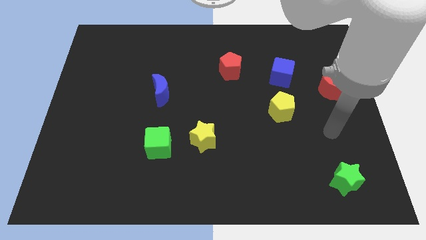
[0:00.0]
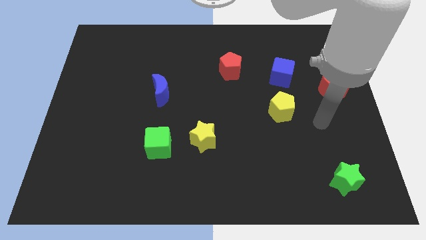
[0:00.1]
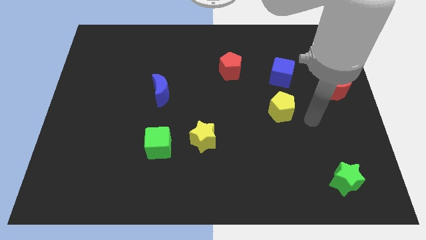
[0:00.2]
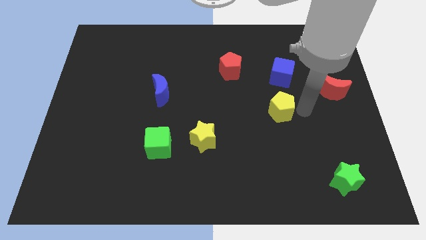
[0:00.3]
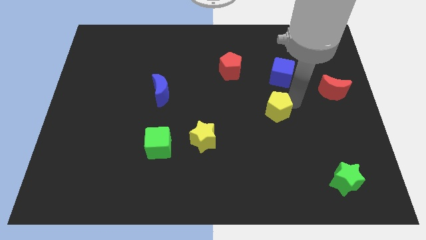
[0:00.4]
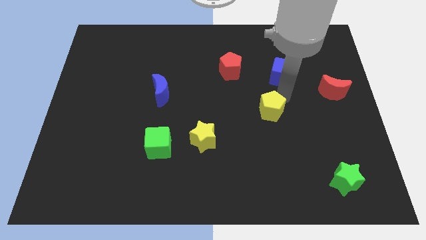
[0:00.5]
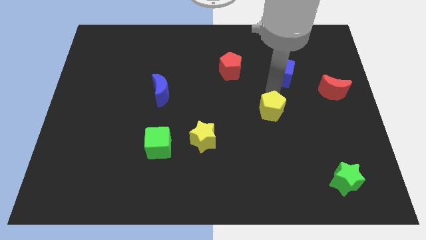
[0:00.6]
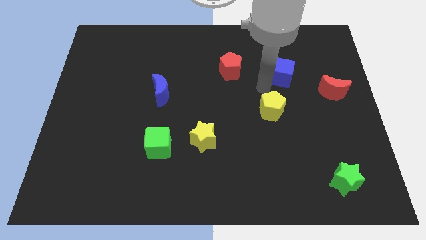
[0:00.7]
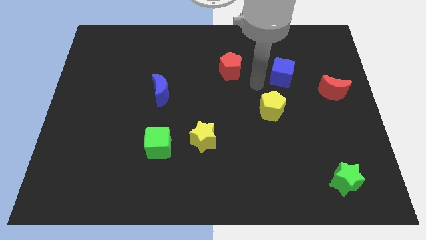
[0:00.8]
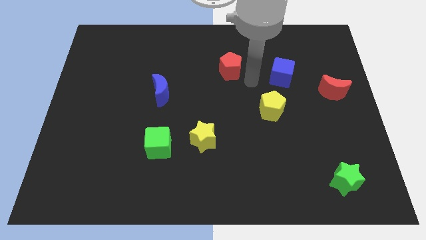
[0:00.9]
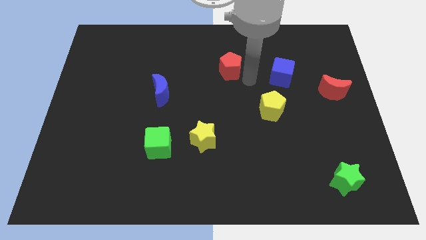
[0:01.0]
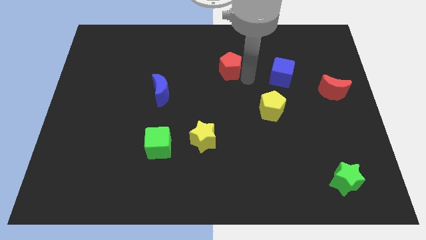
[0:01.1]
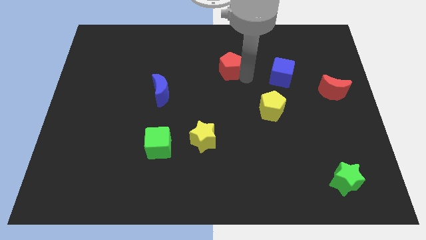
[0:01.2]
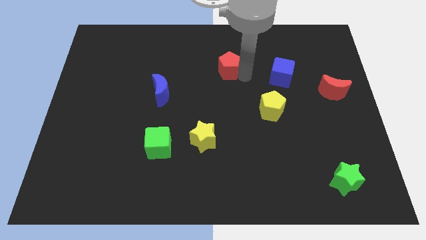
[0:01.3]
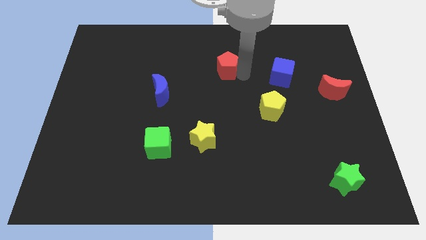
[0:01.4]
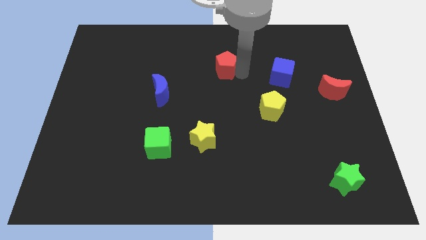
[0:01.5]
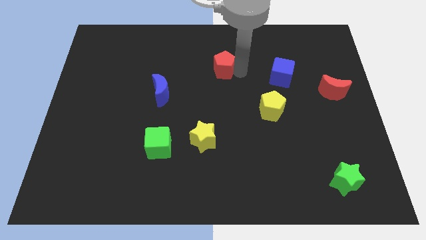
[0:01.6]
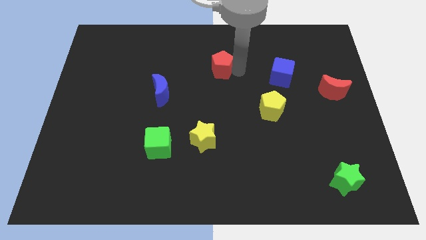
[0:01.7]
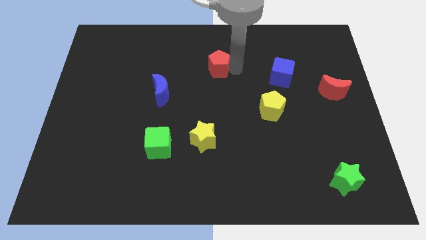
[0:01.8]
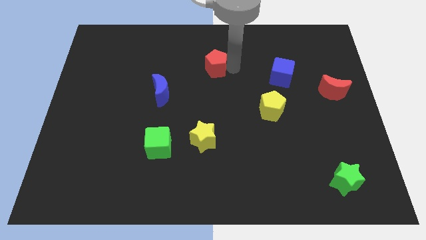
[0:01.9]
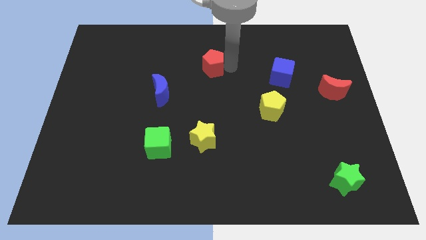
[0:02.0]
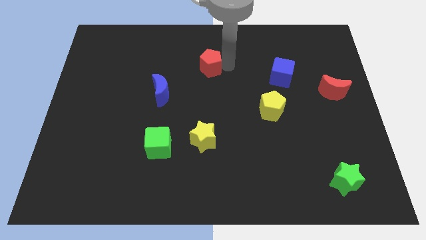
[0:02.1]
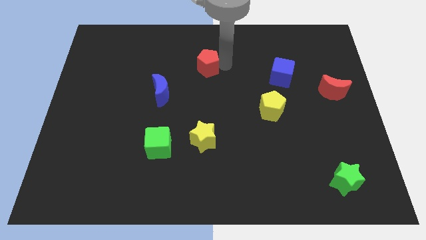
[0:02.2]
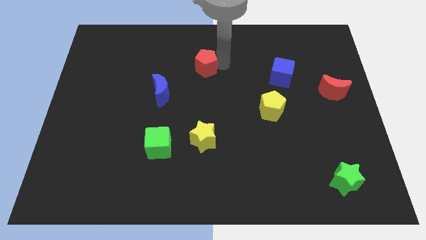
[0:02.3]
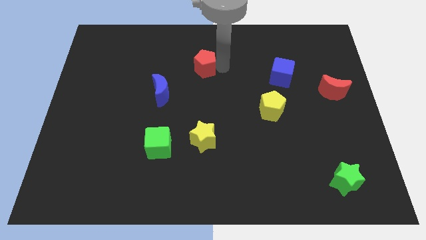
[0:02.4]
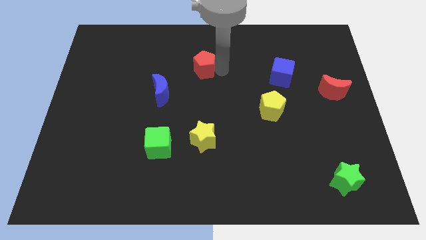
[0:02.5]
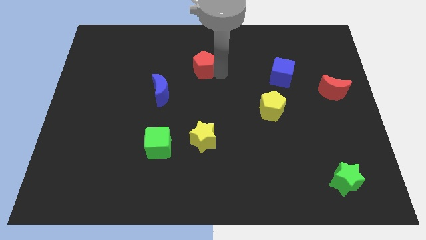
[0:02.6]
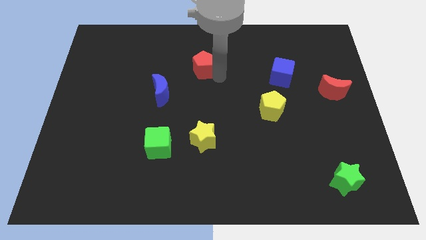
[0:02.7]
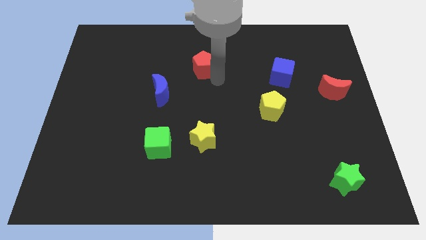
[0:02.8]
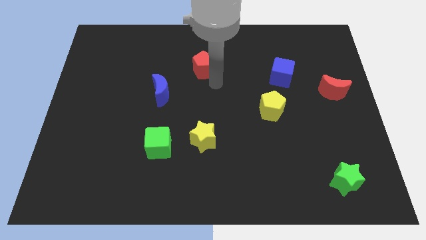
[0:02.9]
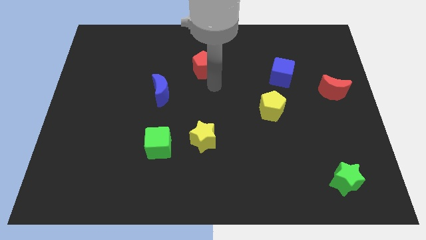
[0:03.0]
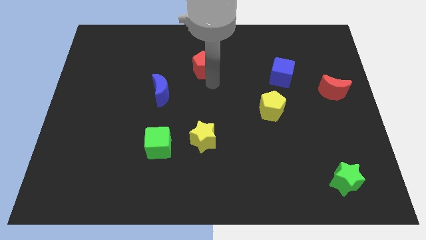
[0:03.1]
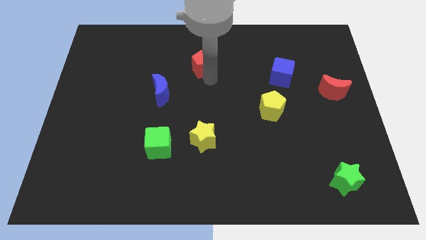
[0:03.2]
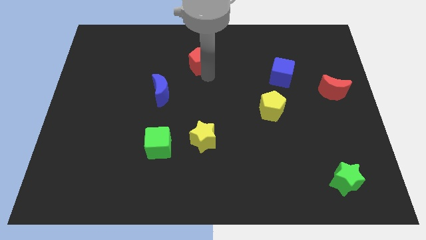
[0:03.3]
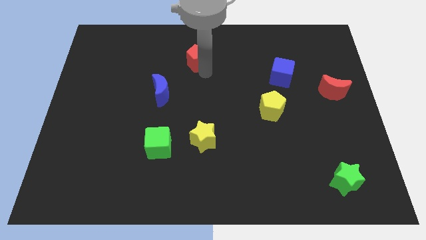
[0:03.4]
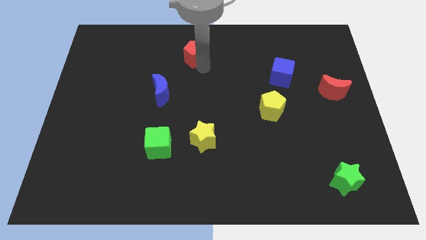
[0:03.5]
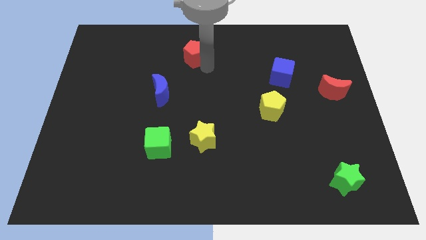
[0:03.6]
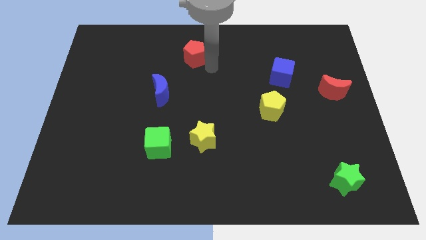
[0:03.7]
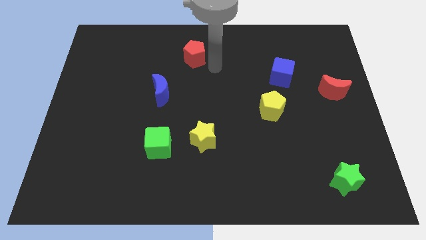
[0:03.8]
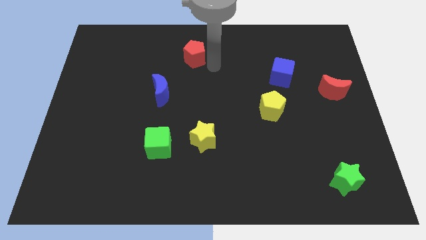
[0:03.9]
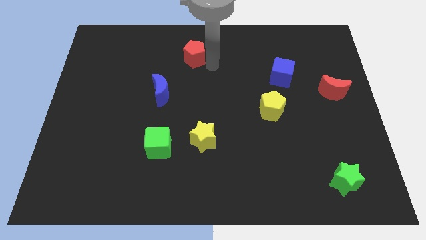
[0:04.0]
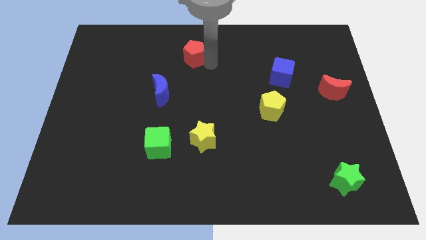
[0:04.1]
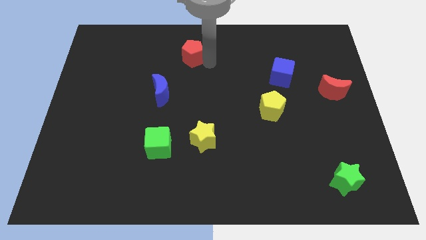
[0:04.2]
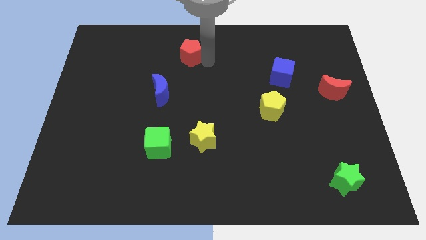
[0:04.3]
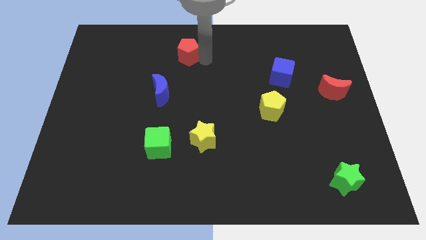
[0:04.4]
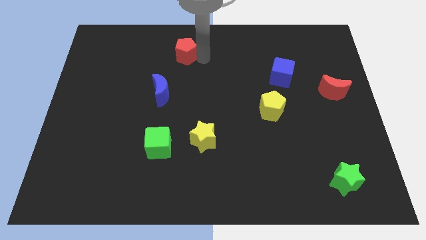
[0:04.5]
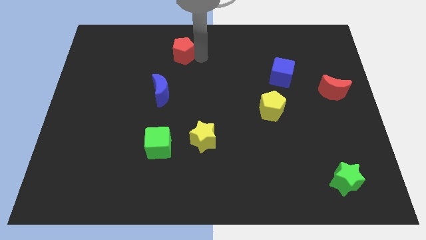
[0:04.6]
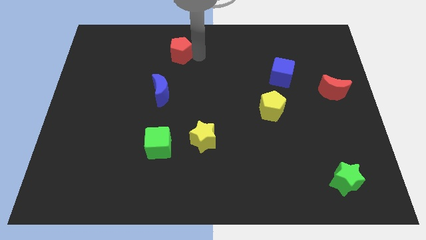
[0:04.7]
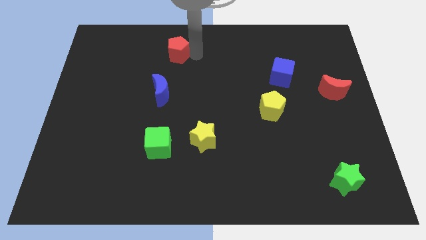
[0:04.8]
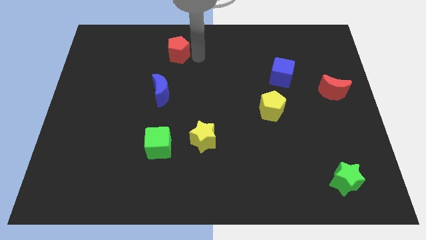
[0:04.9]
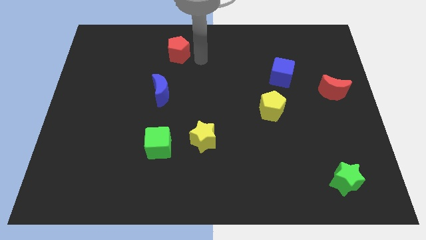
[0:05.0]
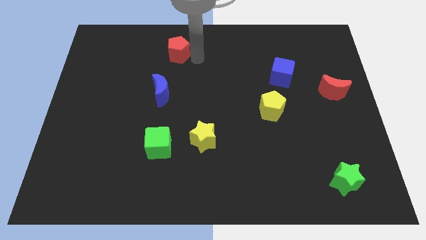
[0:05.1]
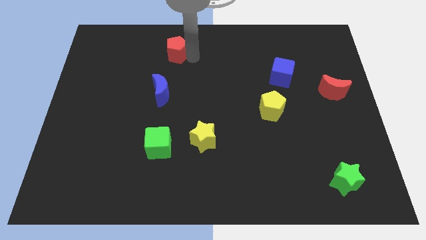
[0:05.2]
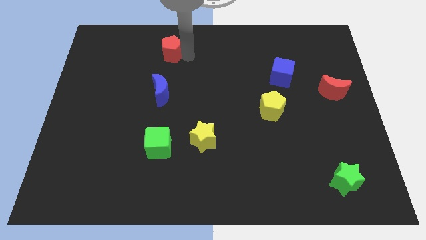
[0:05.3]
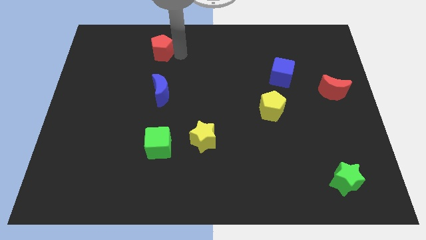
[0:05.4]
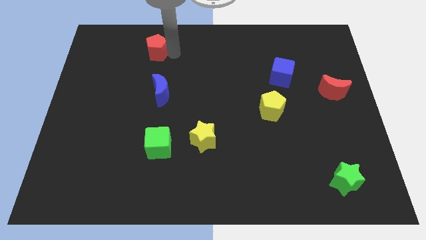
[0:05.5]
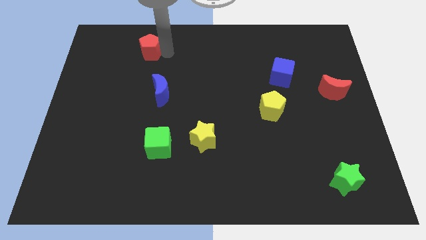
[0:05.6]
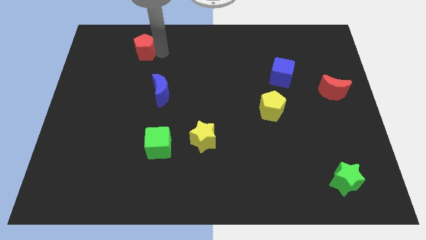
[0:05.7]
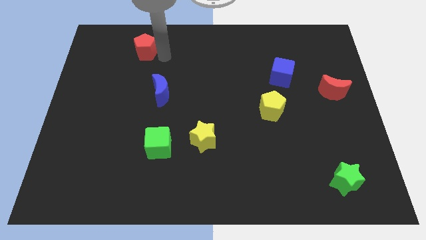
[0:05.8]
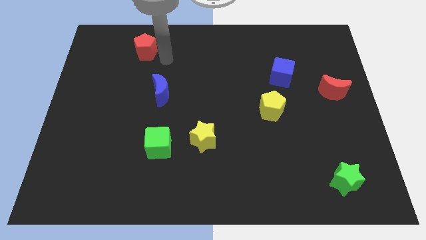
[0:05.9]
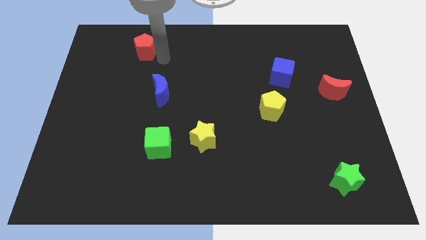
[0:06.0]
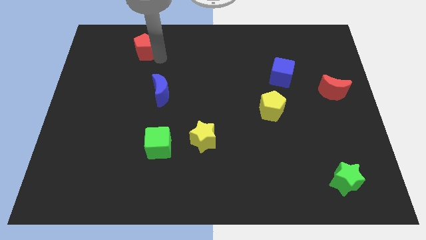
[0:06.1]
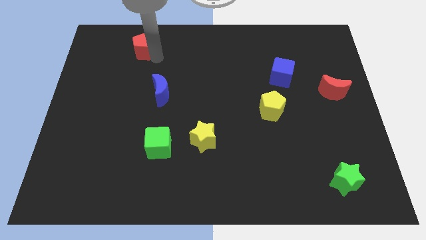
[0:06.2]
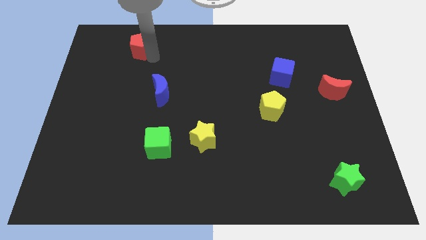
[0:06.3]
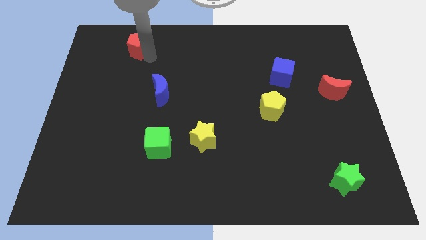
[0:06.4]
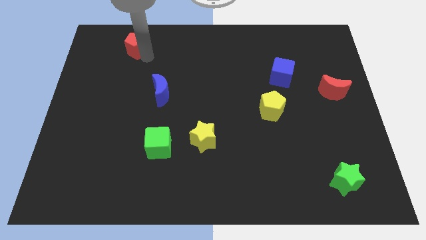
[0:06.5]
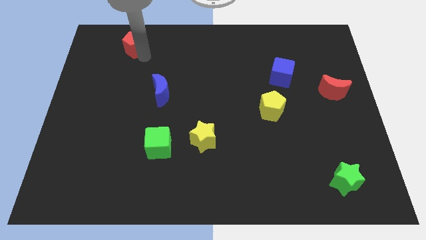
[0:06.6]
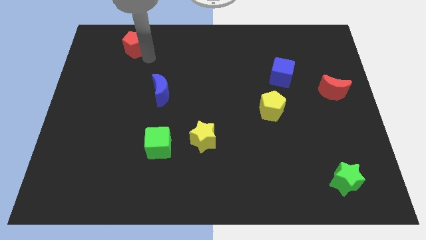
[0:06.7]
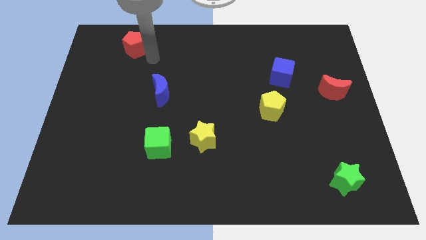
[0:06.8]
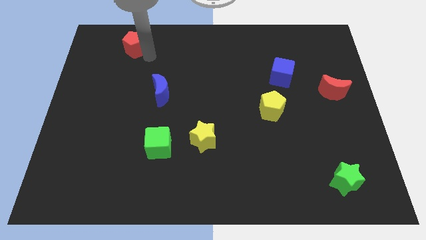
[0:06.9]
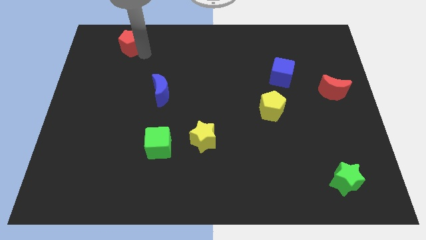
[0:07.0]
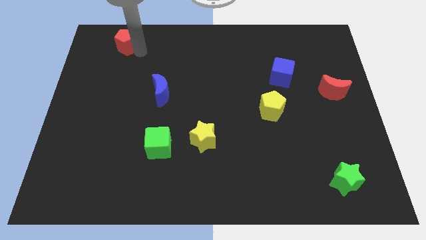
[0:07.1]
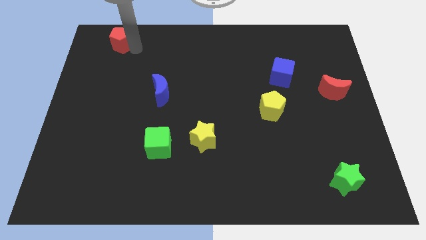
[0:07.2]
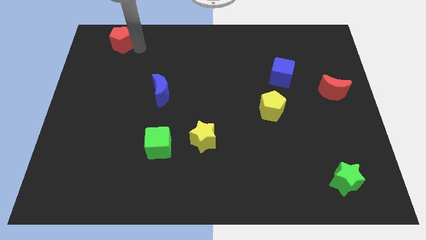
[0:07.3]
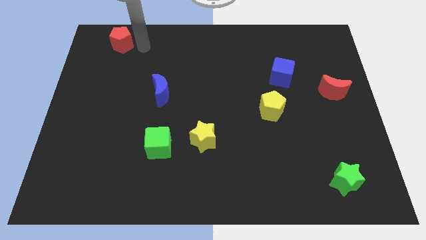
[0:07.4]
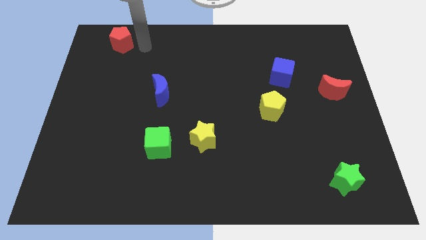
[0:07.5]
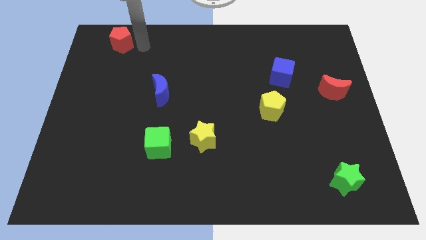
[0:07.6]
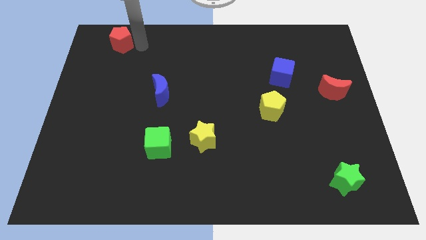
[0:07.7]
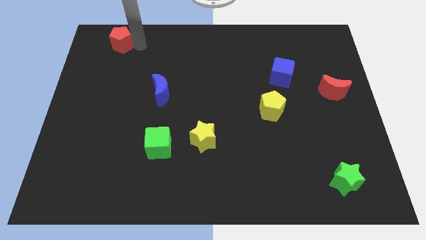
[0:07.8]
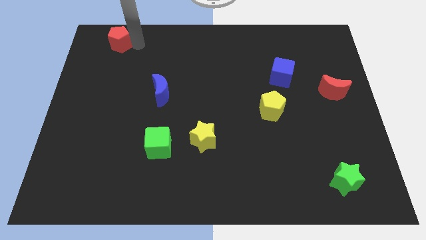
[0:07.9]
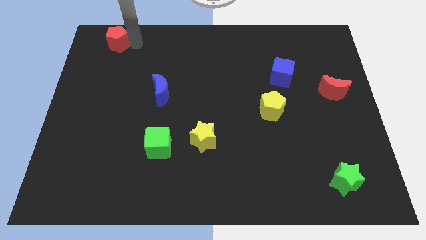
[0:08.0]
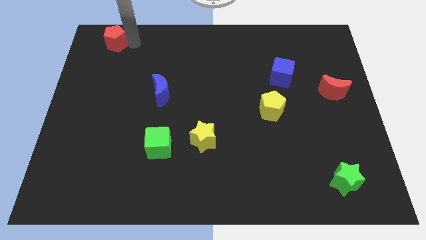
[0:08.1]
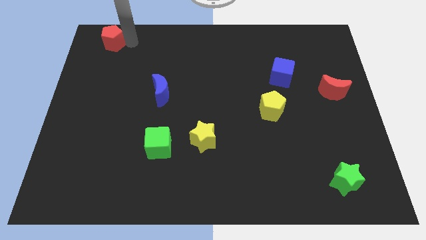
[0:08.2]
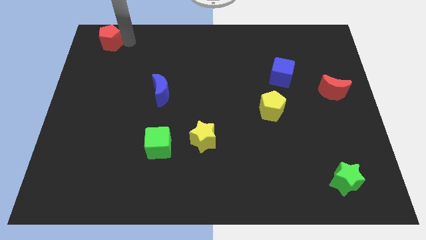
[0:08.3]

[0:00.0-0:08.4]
move the red pentagon to the upper left corner
